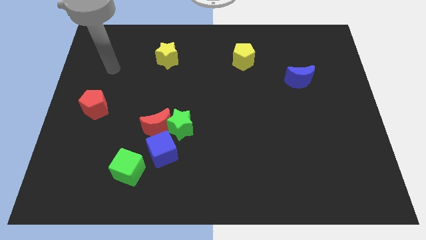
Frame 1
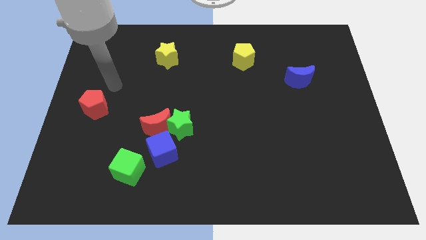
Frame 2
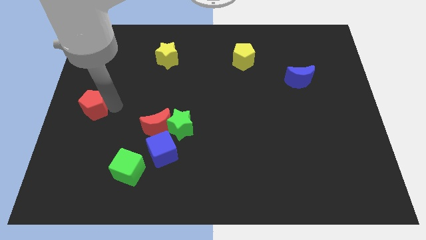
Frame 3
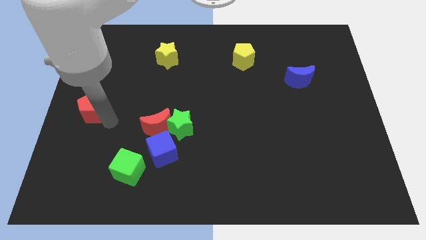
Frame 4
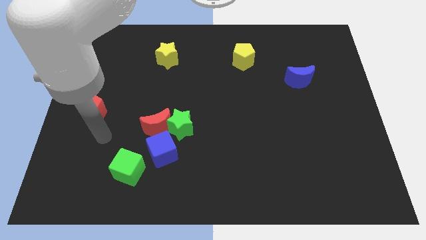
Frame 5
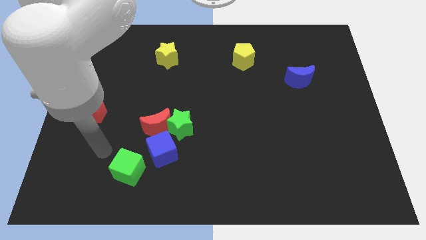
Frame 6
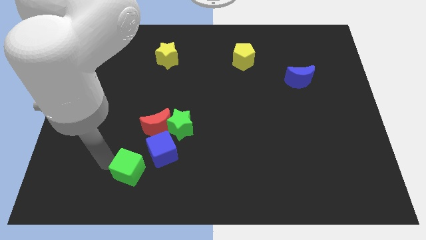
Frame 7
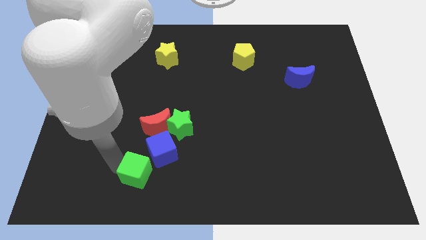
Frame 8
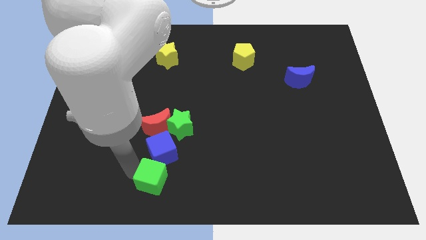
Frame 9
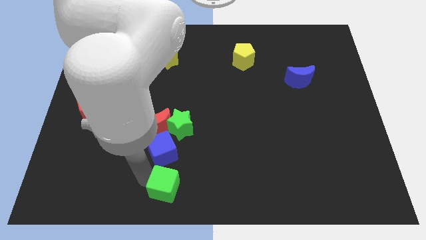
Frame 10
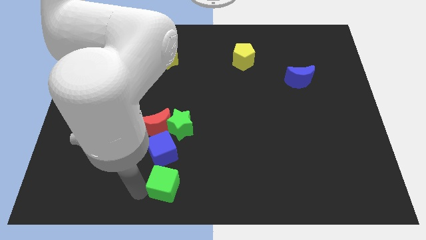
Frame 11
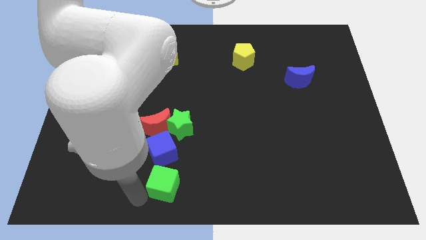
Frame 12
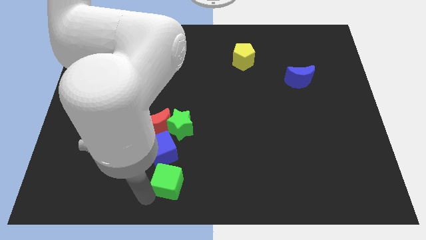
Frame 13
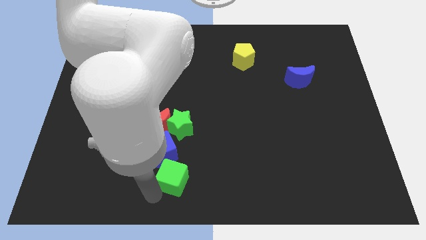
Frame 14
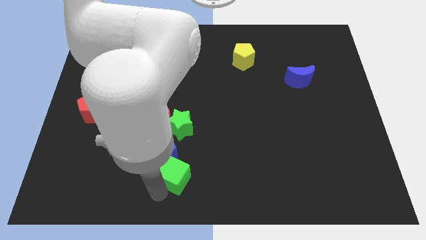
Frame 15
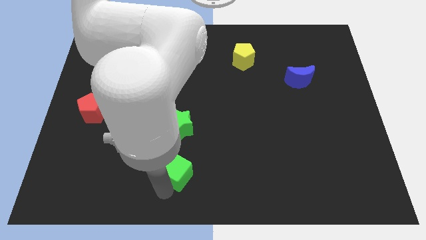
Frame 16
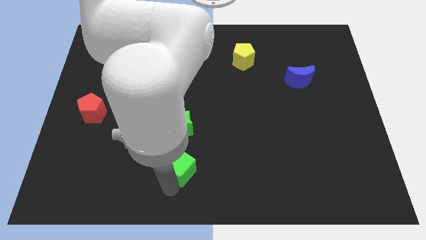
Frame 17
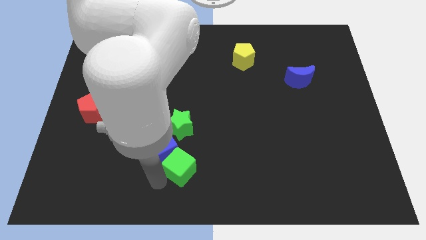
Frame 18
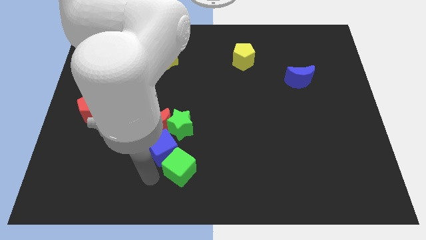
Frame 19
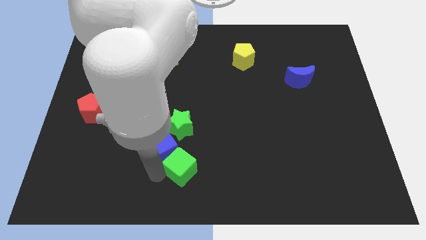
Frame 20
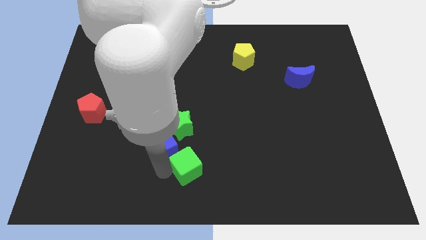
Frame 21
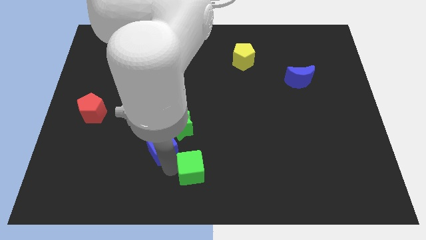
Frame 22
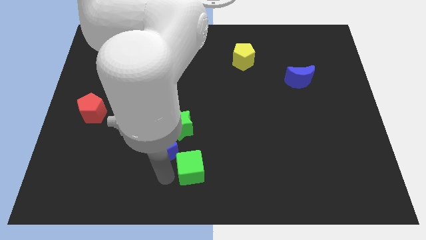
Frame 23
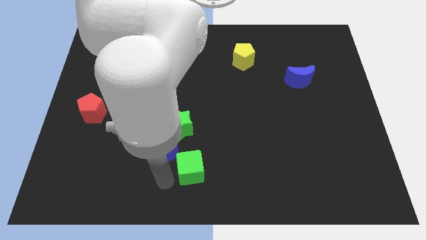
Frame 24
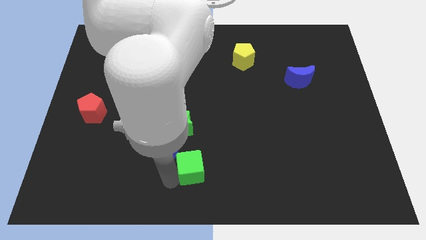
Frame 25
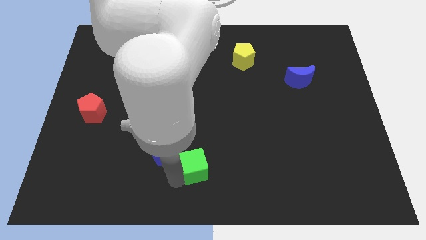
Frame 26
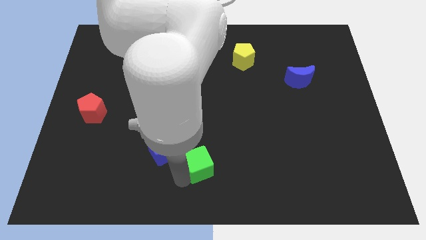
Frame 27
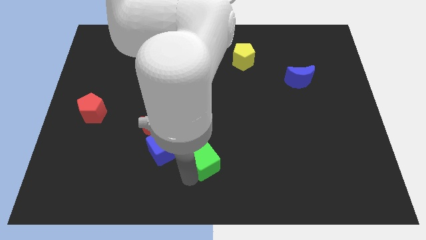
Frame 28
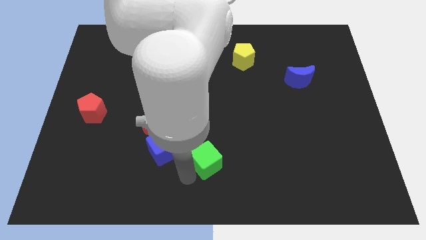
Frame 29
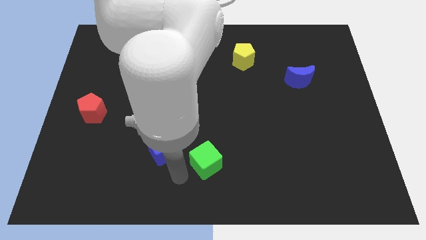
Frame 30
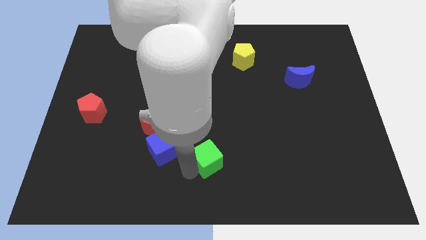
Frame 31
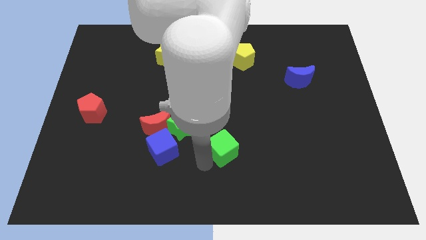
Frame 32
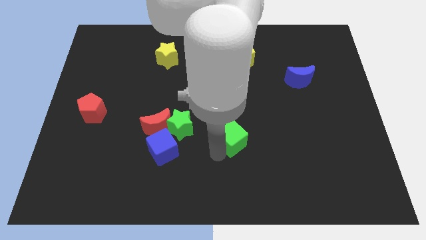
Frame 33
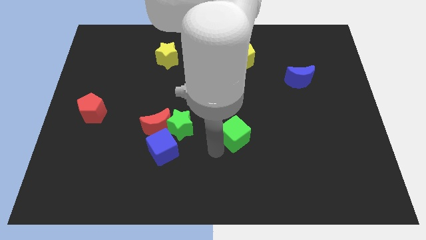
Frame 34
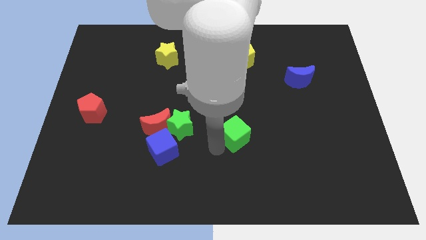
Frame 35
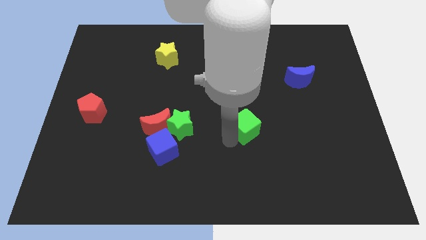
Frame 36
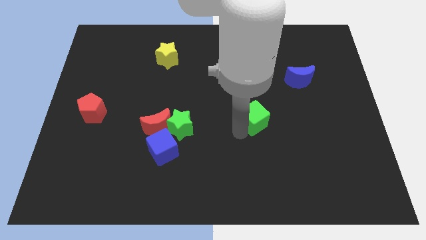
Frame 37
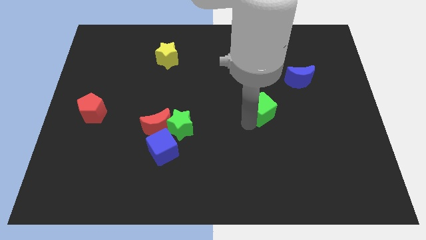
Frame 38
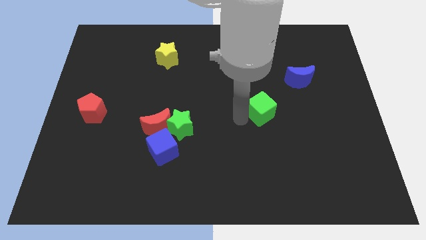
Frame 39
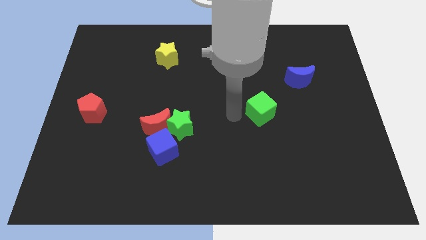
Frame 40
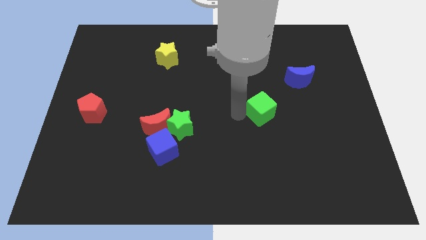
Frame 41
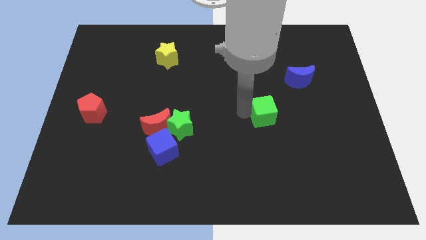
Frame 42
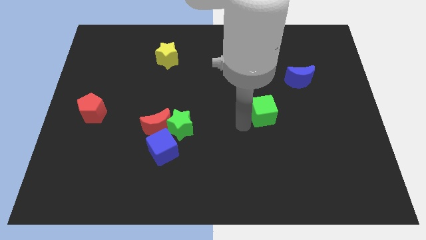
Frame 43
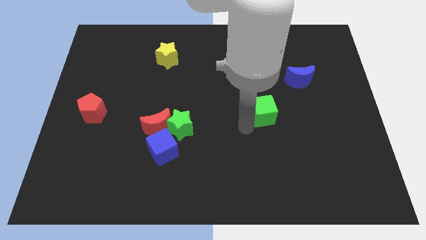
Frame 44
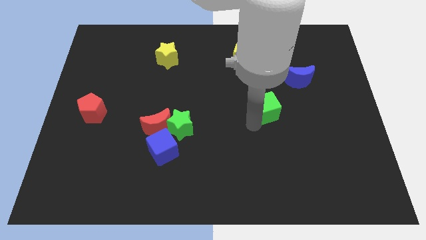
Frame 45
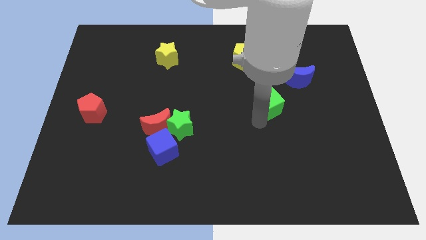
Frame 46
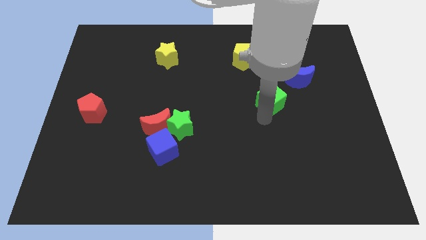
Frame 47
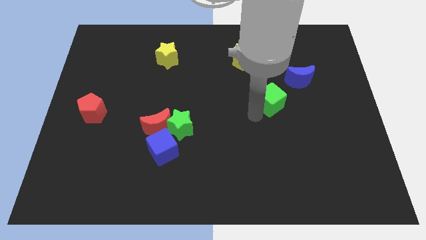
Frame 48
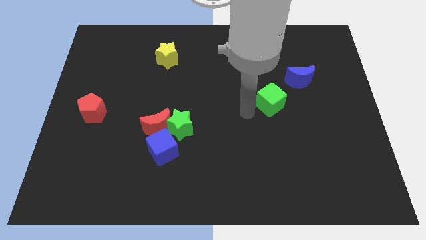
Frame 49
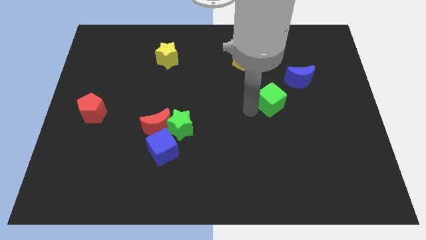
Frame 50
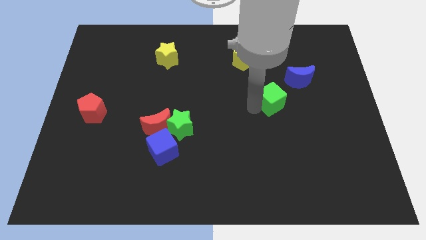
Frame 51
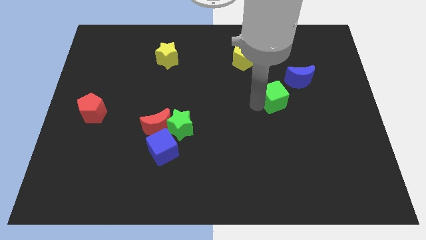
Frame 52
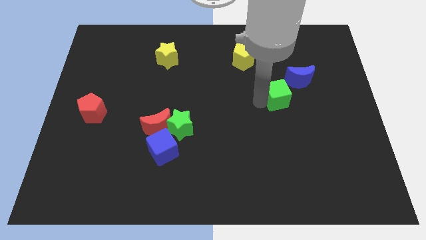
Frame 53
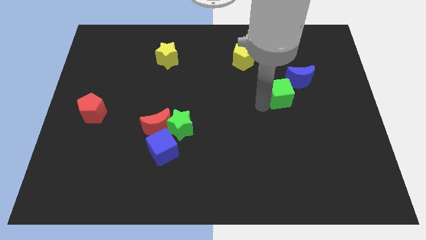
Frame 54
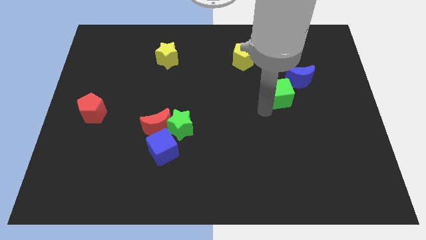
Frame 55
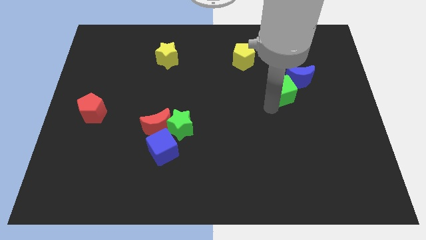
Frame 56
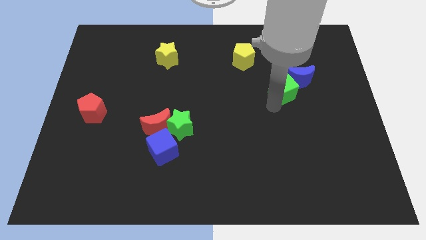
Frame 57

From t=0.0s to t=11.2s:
put the green cube next to the blue moon

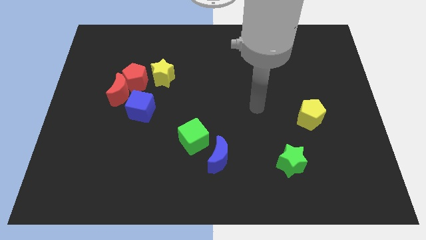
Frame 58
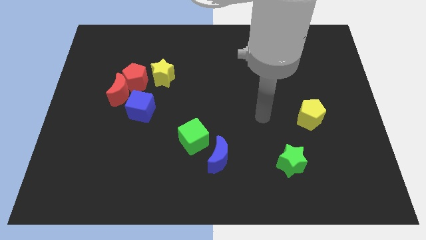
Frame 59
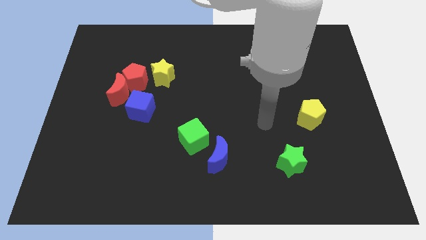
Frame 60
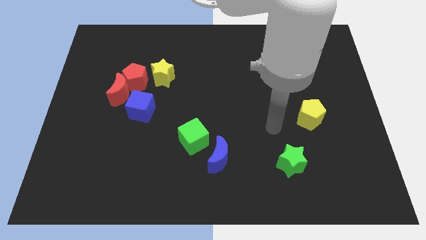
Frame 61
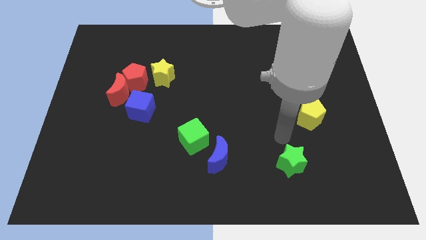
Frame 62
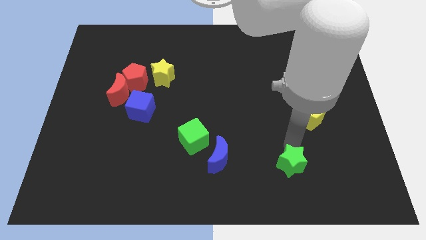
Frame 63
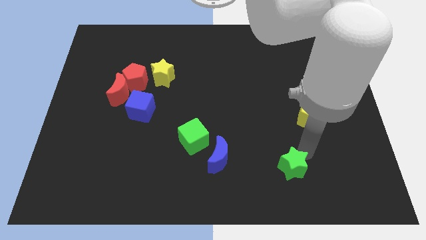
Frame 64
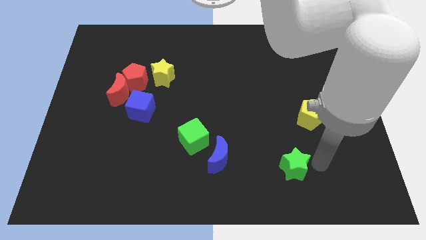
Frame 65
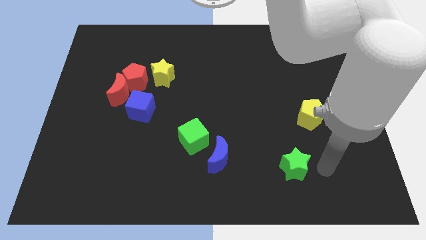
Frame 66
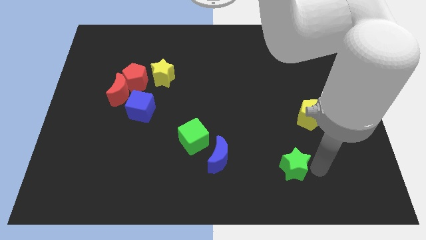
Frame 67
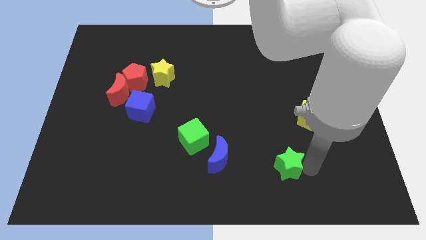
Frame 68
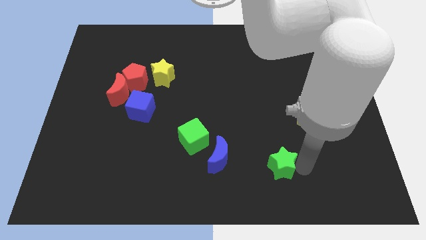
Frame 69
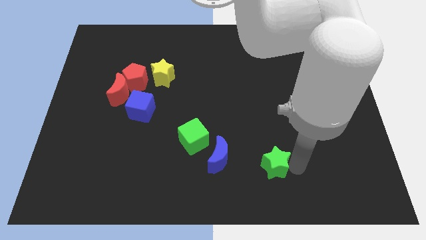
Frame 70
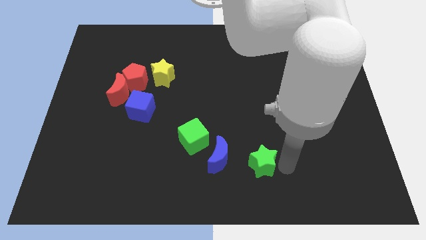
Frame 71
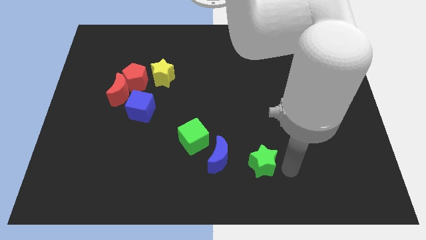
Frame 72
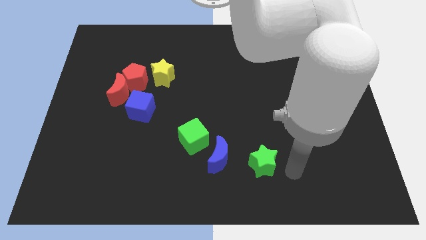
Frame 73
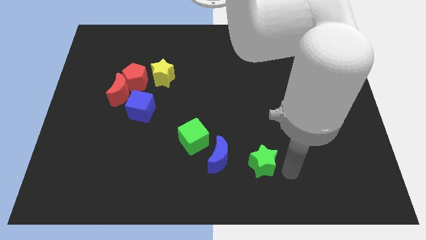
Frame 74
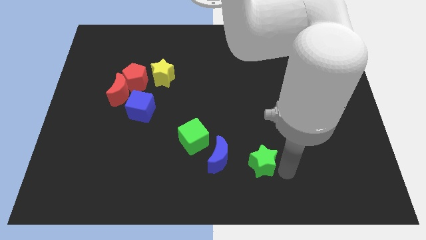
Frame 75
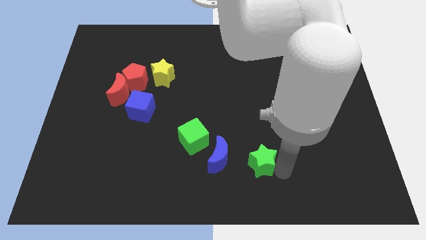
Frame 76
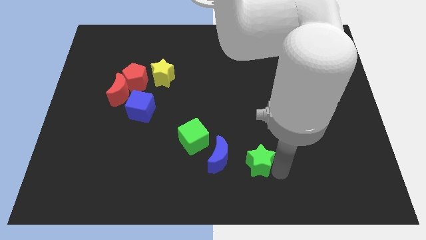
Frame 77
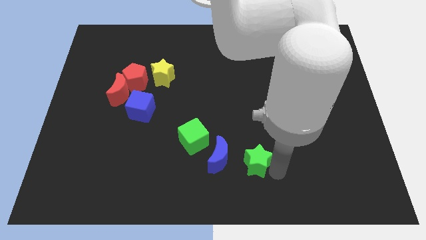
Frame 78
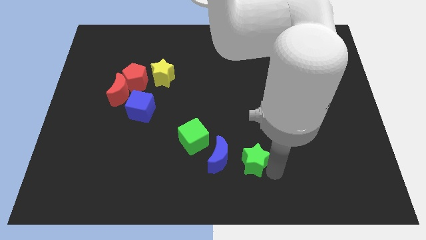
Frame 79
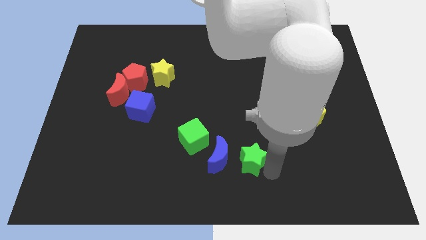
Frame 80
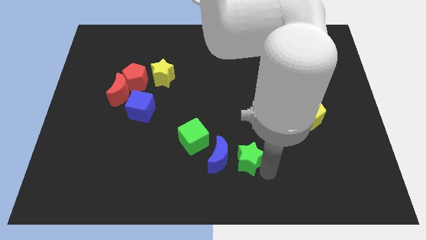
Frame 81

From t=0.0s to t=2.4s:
push the green star to the blue moon
